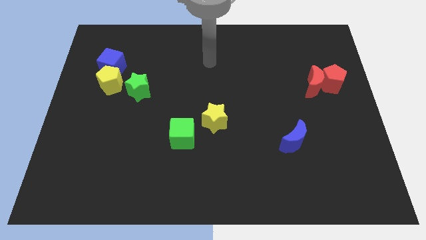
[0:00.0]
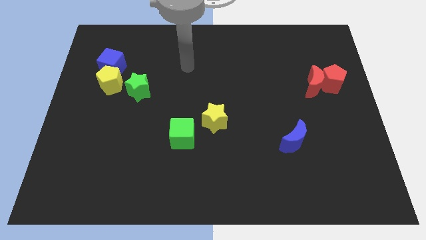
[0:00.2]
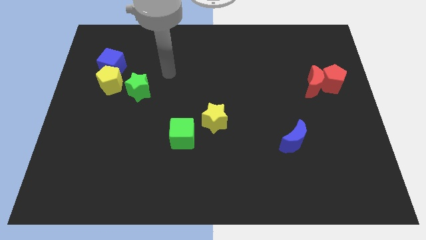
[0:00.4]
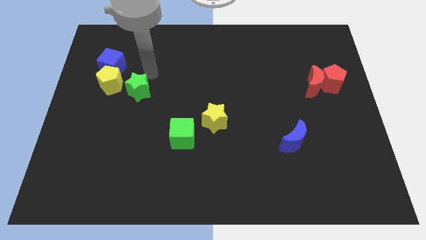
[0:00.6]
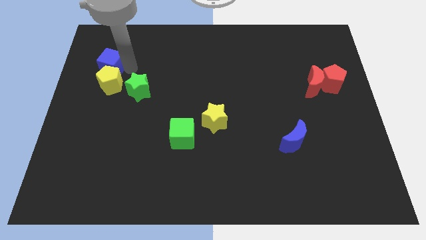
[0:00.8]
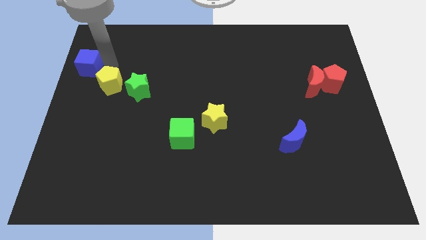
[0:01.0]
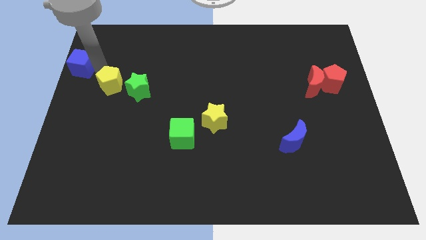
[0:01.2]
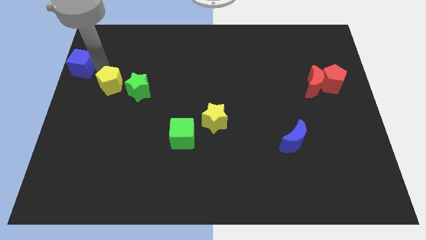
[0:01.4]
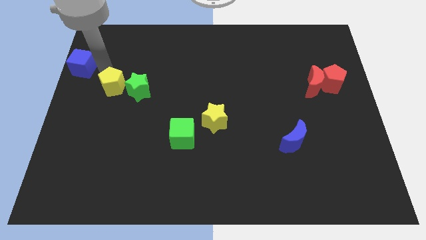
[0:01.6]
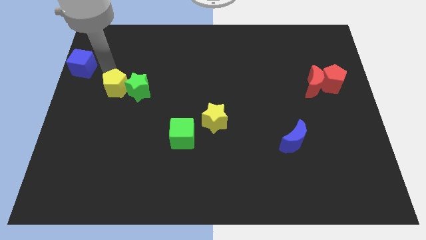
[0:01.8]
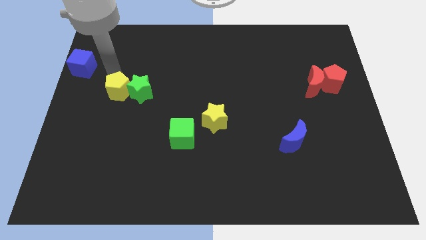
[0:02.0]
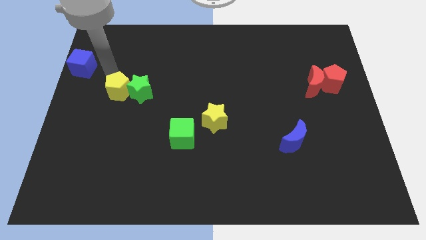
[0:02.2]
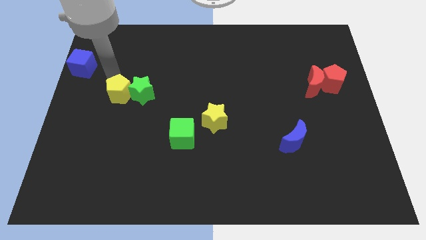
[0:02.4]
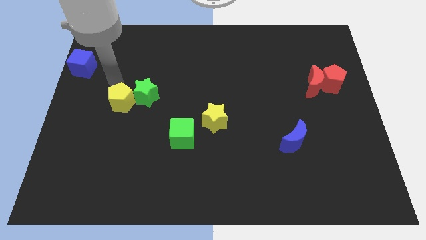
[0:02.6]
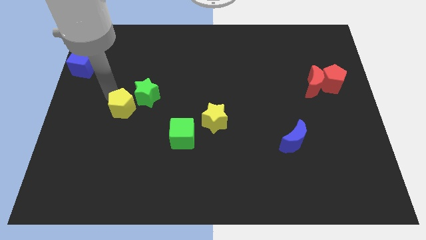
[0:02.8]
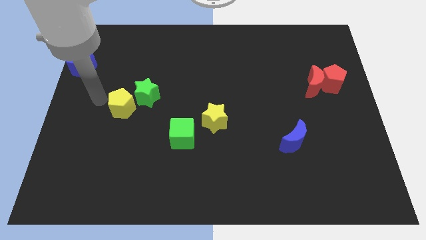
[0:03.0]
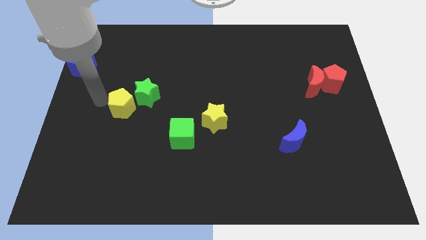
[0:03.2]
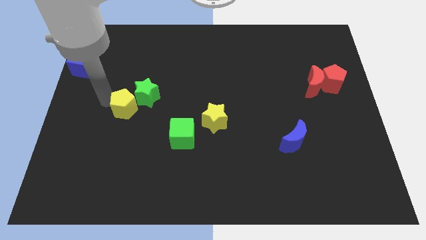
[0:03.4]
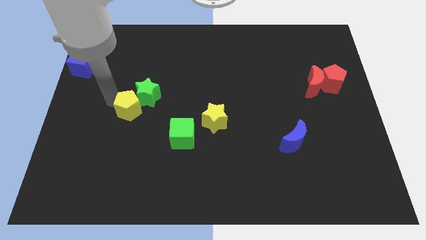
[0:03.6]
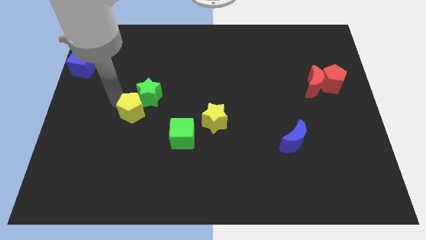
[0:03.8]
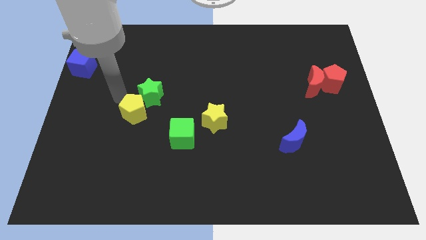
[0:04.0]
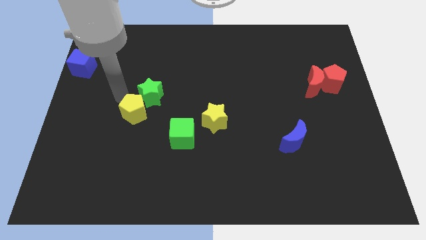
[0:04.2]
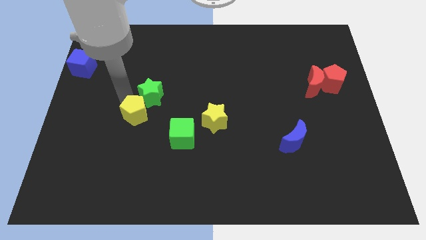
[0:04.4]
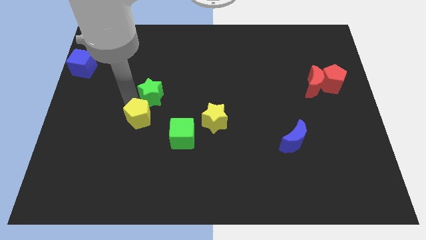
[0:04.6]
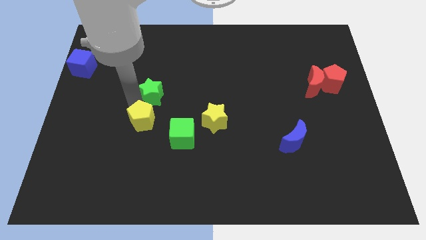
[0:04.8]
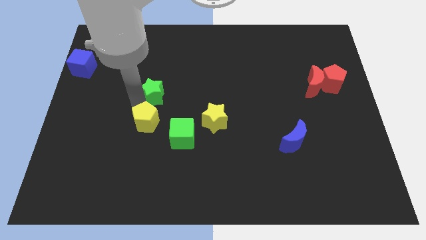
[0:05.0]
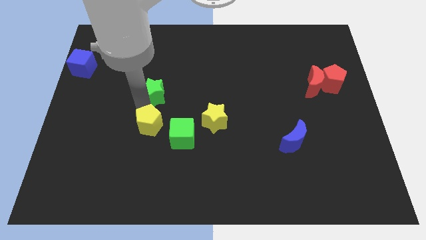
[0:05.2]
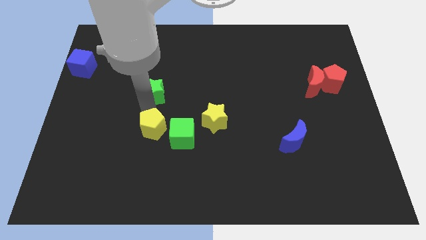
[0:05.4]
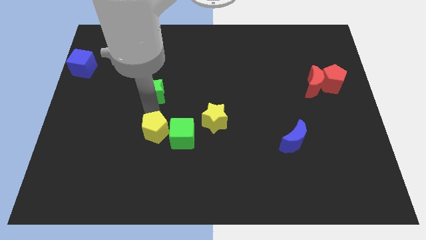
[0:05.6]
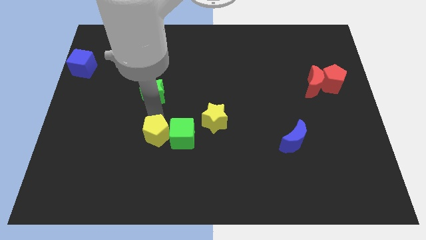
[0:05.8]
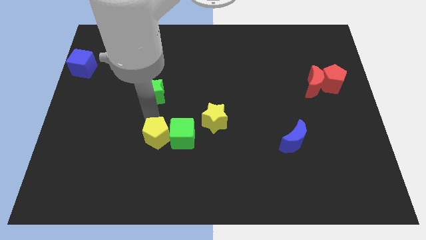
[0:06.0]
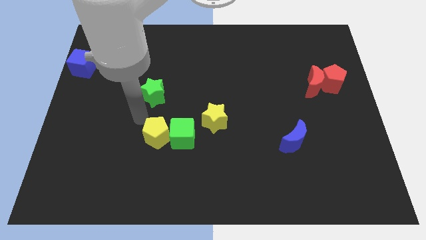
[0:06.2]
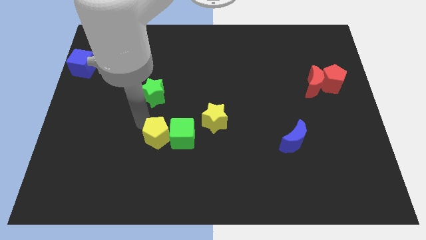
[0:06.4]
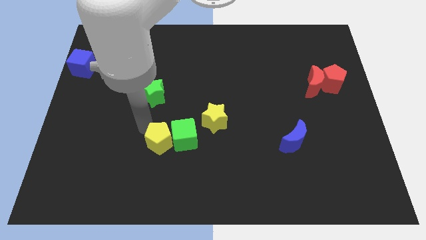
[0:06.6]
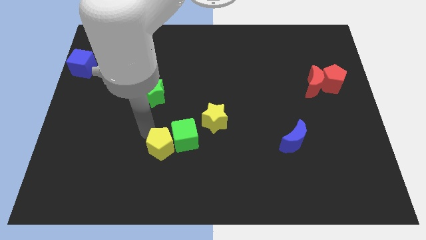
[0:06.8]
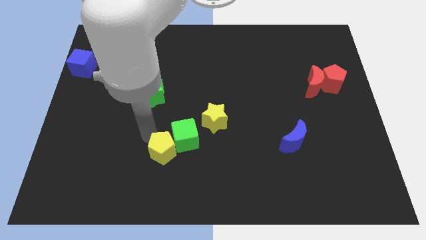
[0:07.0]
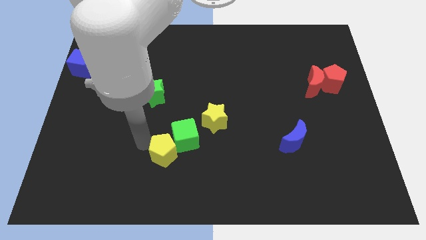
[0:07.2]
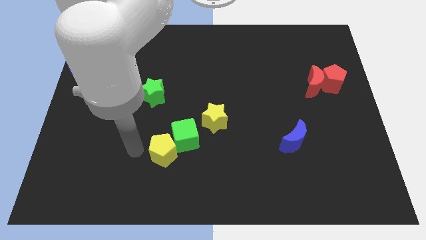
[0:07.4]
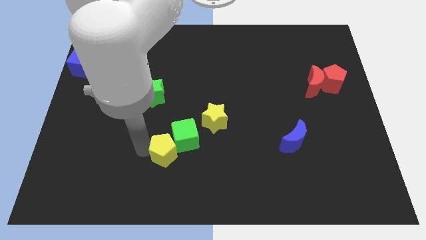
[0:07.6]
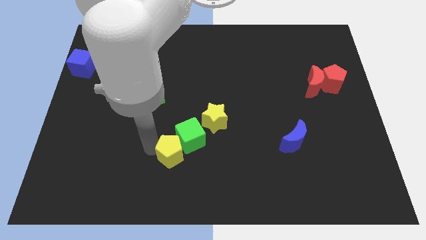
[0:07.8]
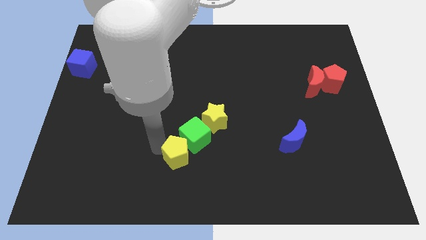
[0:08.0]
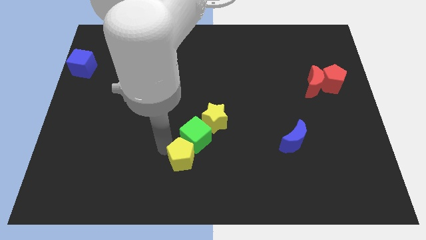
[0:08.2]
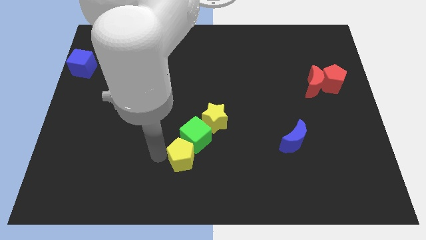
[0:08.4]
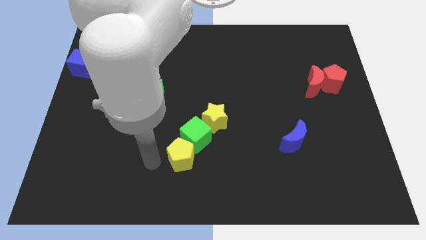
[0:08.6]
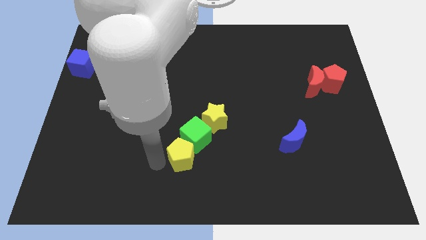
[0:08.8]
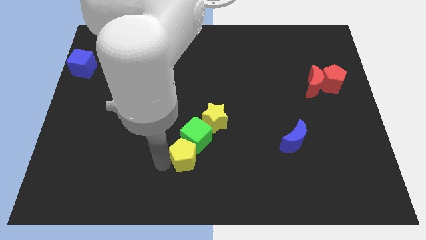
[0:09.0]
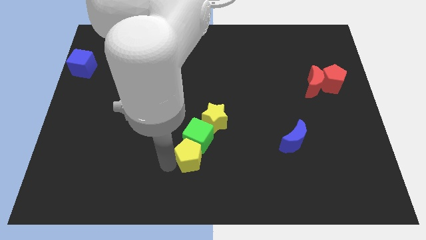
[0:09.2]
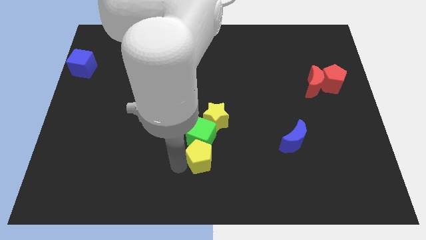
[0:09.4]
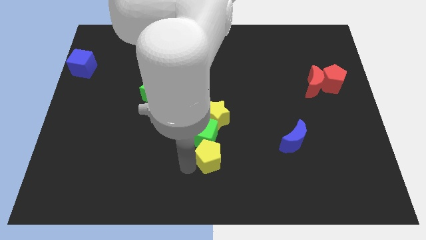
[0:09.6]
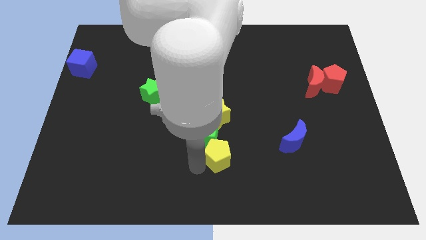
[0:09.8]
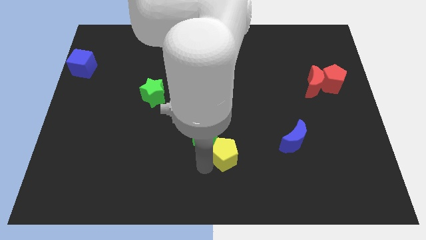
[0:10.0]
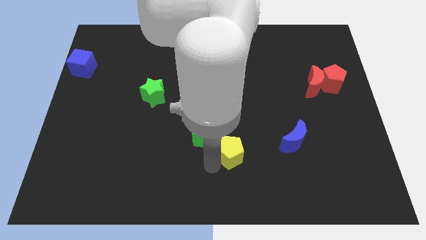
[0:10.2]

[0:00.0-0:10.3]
push the yellow pentagon to the bottom right side of the yellow star

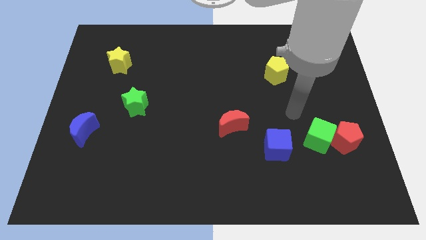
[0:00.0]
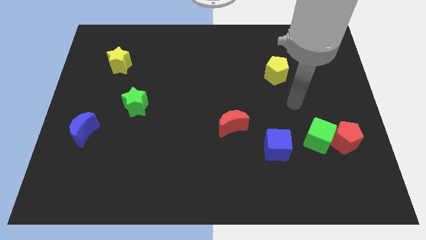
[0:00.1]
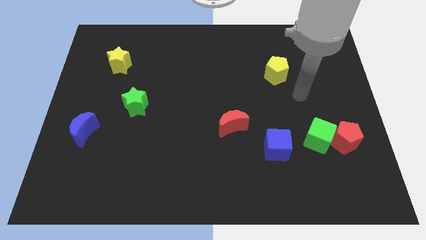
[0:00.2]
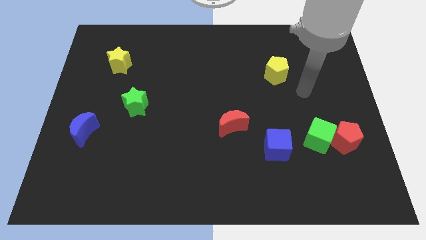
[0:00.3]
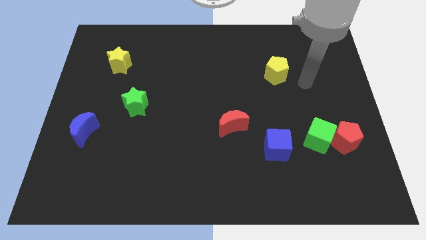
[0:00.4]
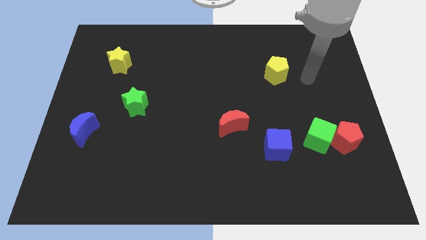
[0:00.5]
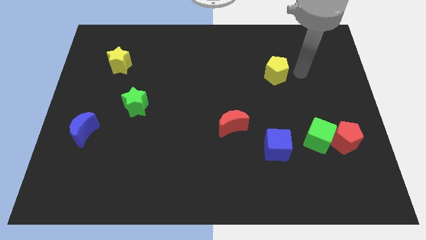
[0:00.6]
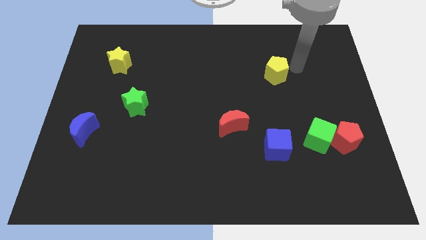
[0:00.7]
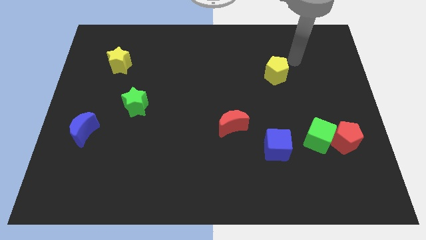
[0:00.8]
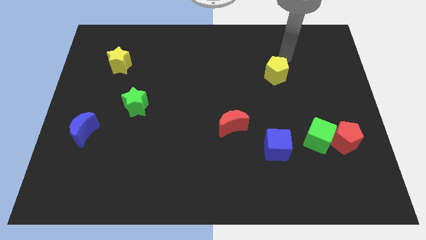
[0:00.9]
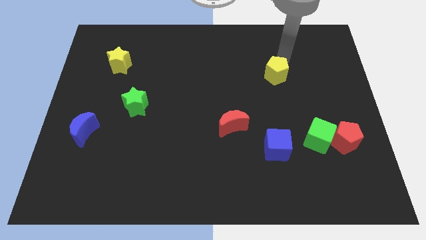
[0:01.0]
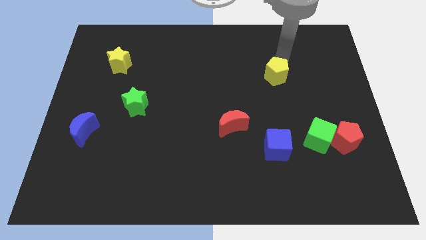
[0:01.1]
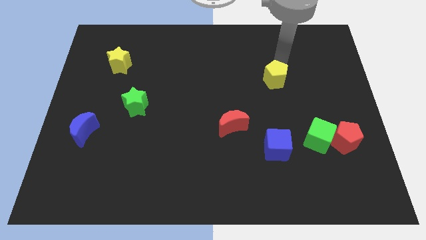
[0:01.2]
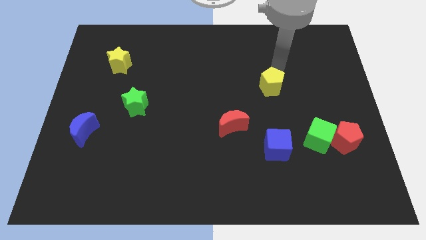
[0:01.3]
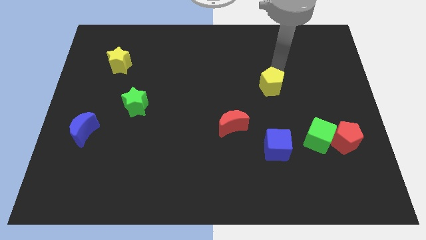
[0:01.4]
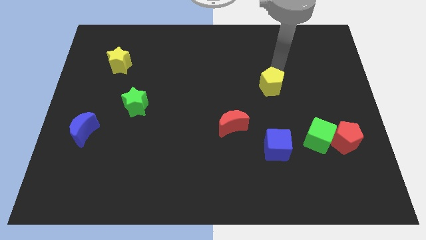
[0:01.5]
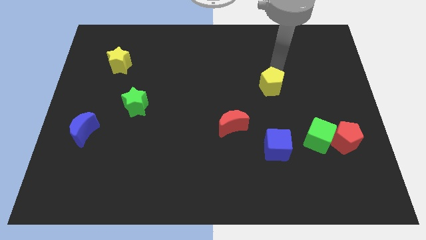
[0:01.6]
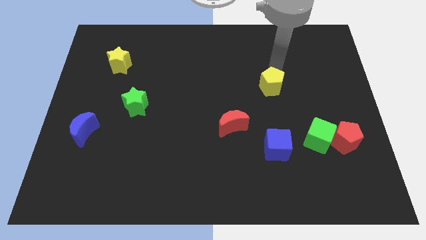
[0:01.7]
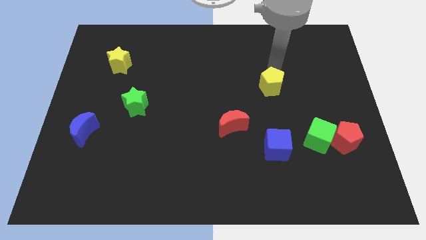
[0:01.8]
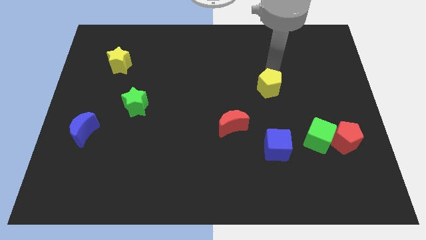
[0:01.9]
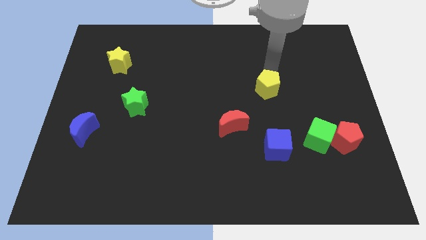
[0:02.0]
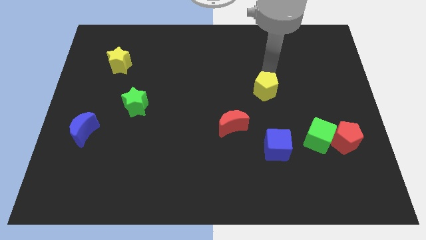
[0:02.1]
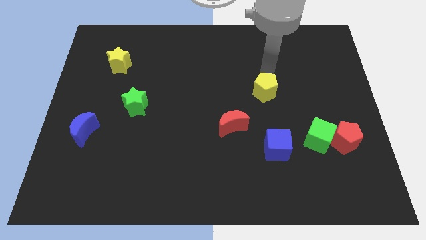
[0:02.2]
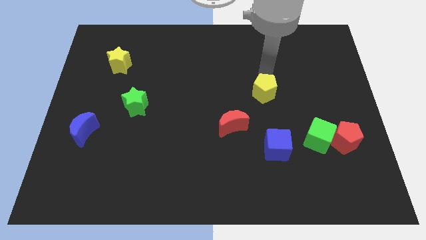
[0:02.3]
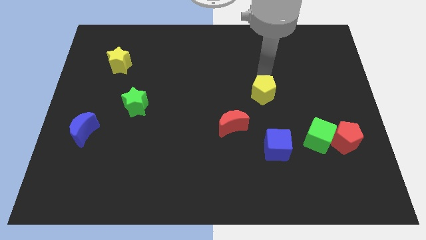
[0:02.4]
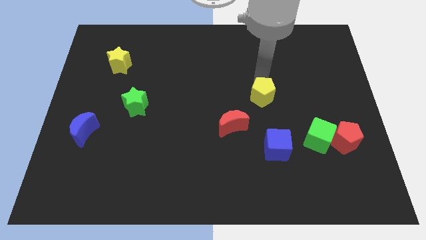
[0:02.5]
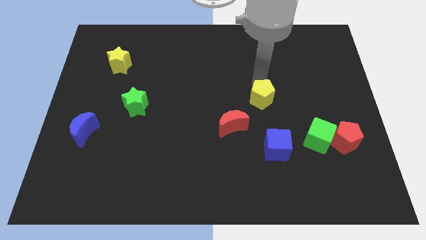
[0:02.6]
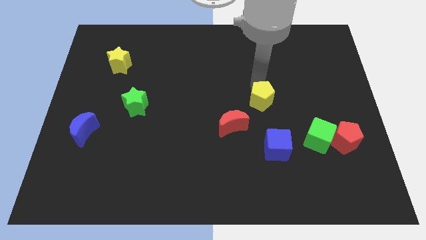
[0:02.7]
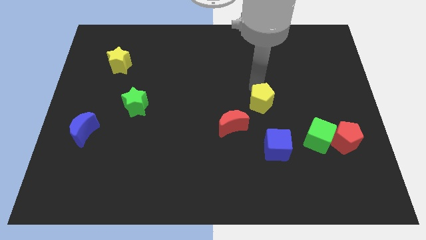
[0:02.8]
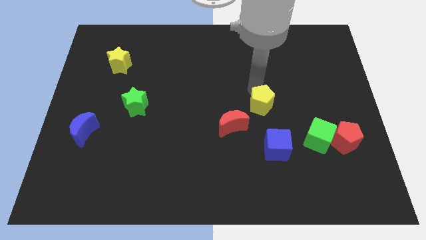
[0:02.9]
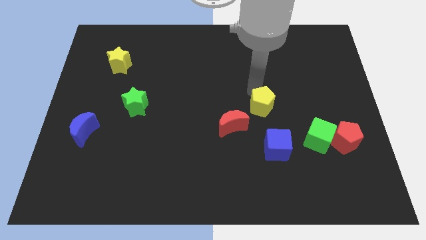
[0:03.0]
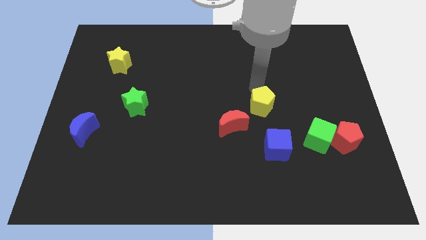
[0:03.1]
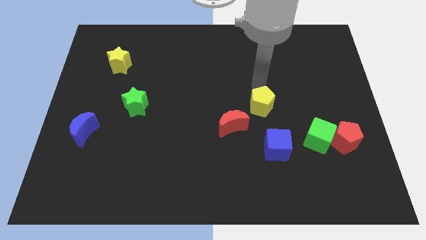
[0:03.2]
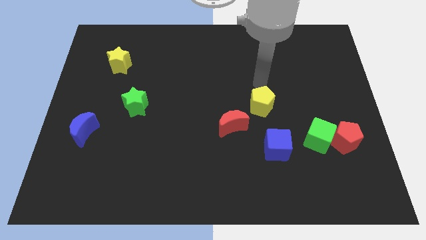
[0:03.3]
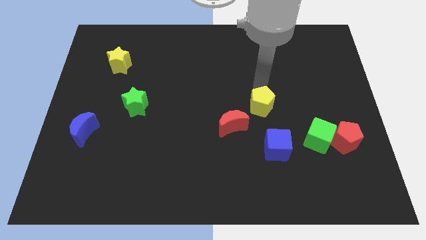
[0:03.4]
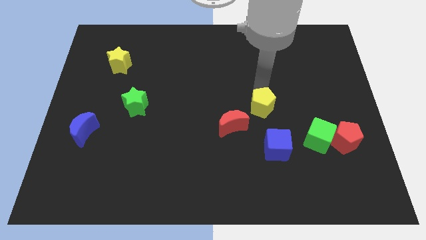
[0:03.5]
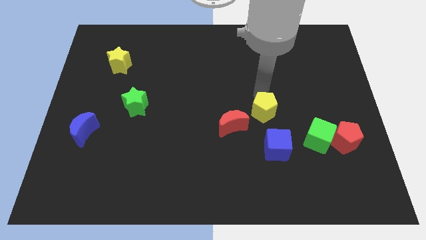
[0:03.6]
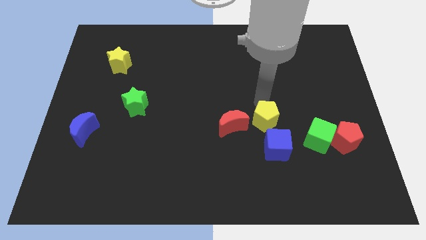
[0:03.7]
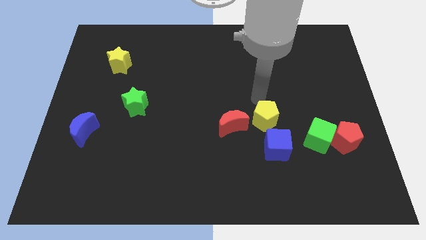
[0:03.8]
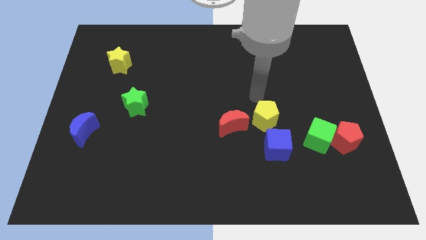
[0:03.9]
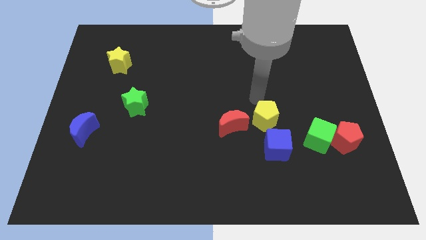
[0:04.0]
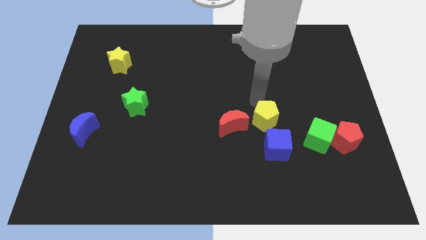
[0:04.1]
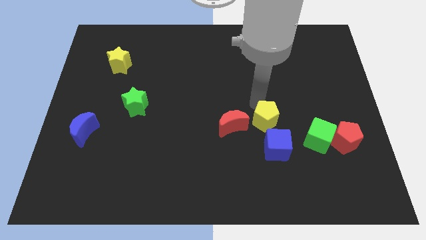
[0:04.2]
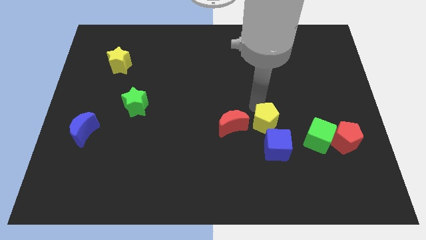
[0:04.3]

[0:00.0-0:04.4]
slide the yellow pentagon to the left of the green cube
